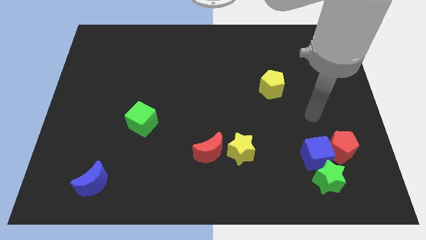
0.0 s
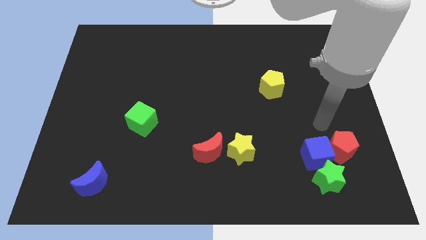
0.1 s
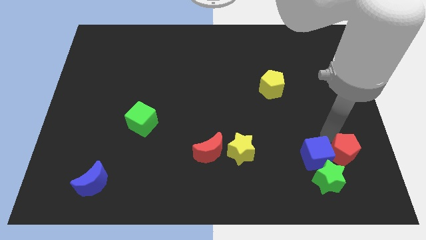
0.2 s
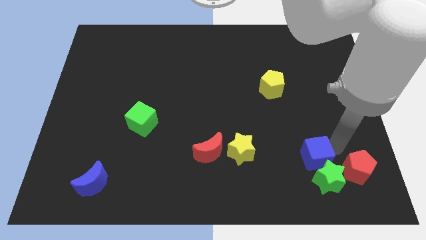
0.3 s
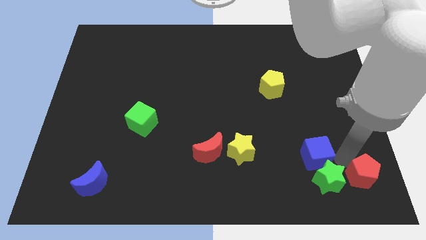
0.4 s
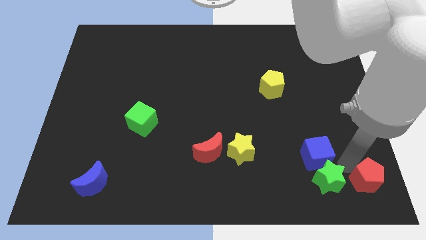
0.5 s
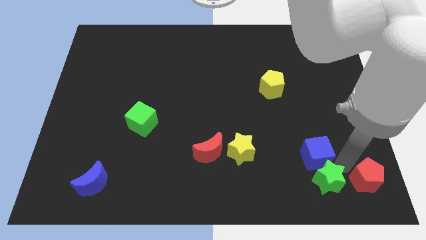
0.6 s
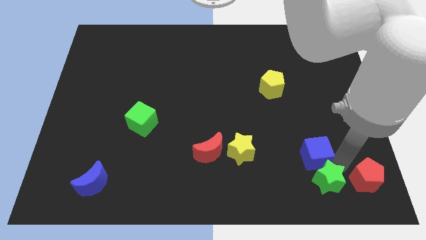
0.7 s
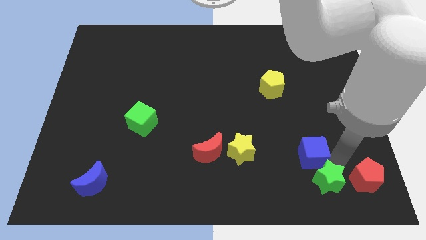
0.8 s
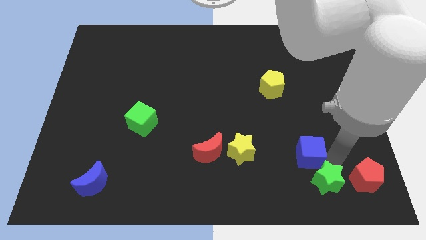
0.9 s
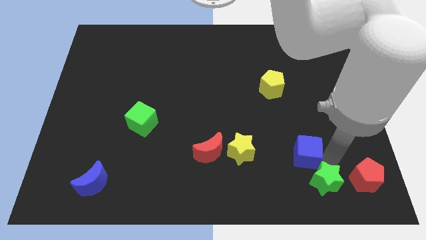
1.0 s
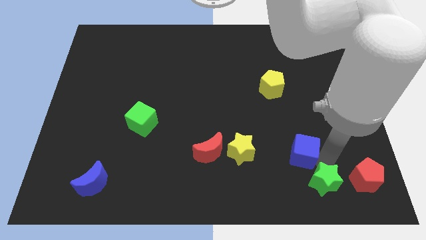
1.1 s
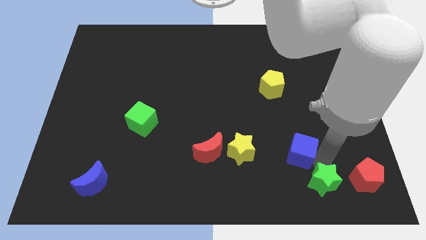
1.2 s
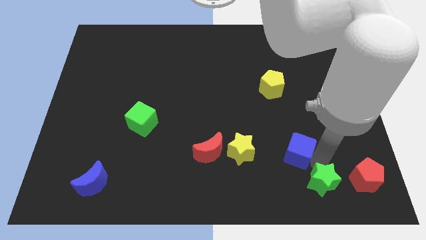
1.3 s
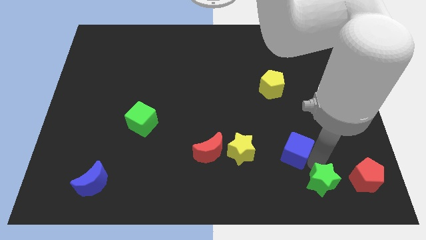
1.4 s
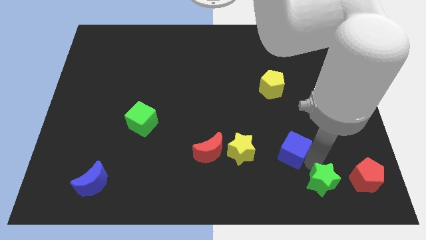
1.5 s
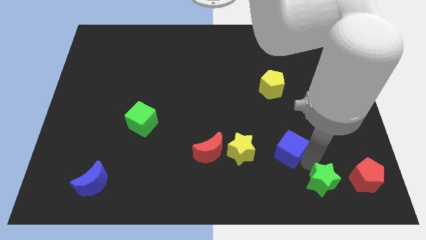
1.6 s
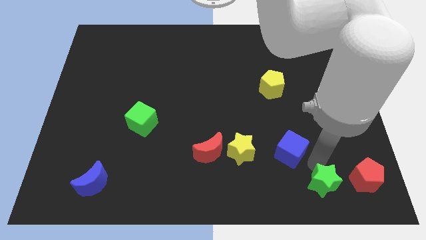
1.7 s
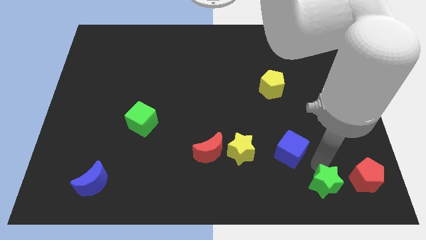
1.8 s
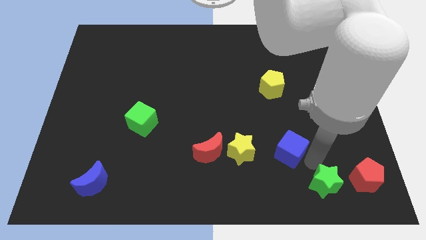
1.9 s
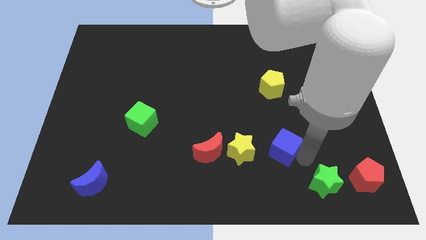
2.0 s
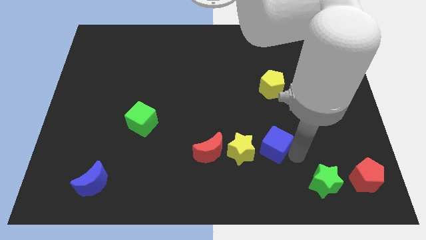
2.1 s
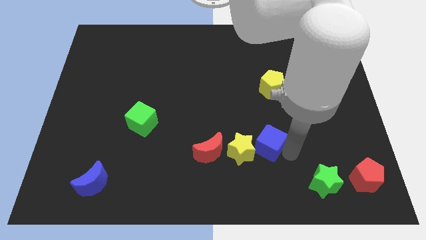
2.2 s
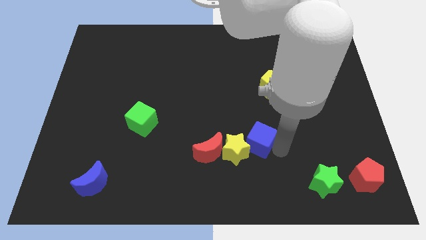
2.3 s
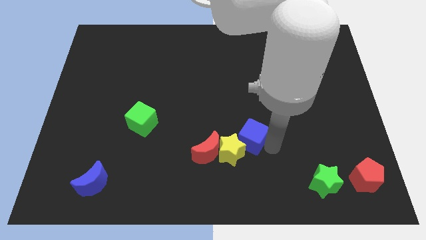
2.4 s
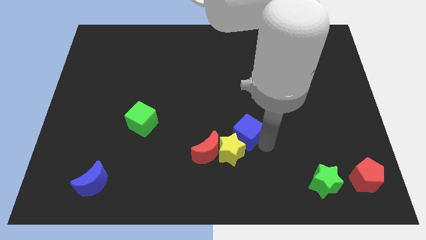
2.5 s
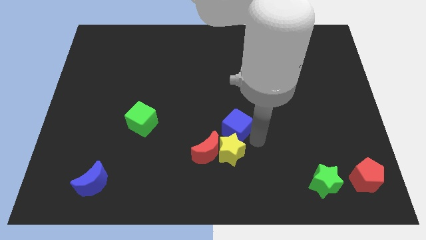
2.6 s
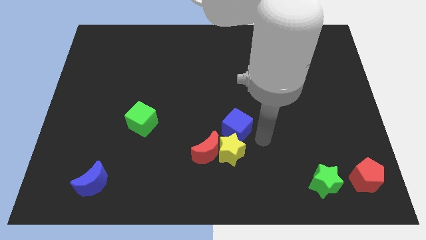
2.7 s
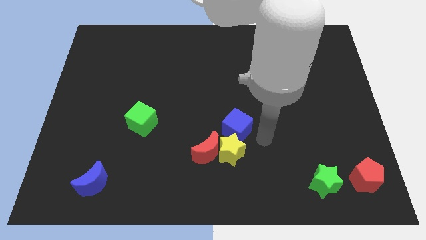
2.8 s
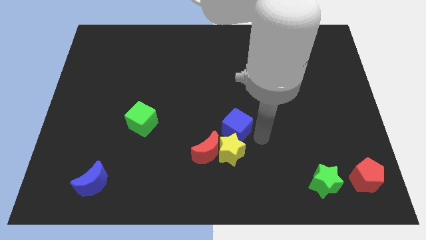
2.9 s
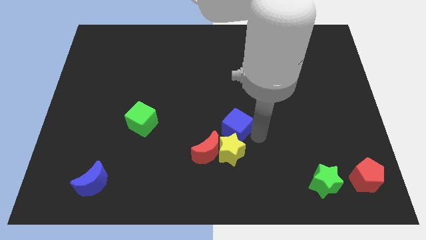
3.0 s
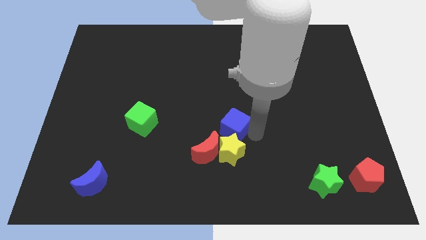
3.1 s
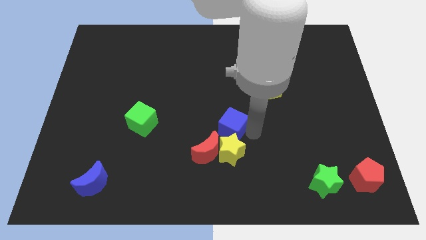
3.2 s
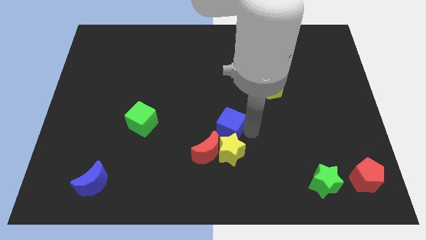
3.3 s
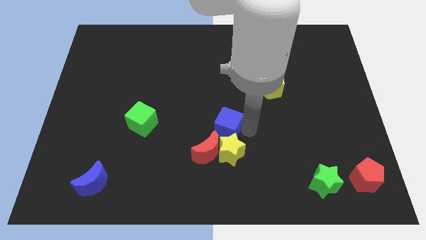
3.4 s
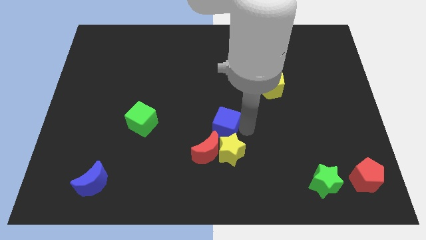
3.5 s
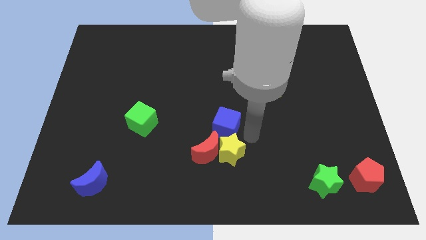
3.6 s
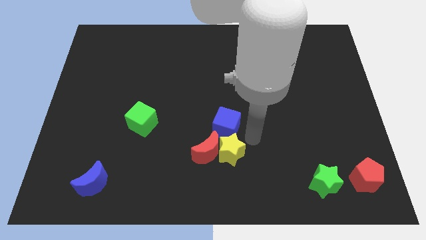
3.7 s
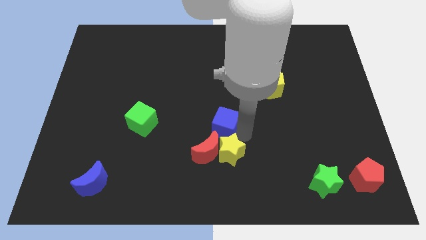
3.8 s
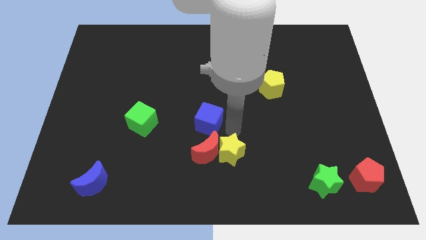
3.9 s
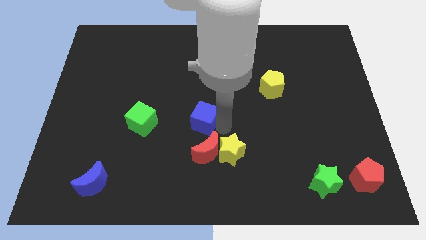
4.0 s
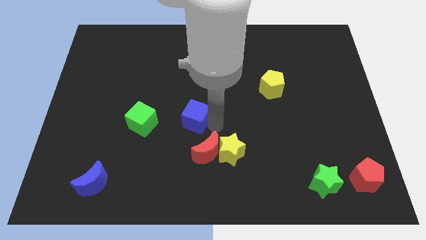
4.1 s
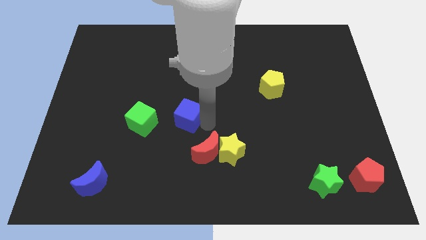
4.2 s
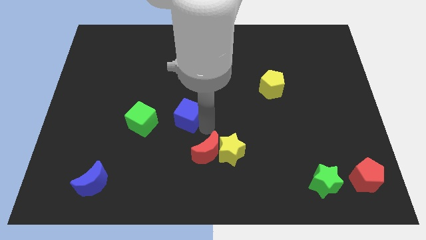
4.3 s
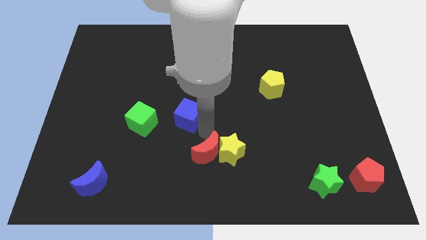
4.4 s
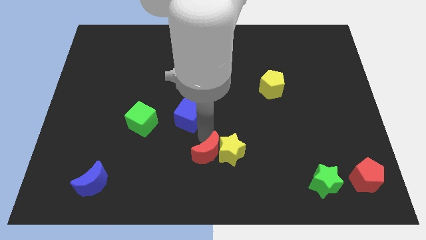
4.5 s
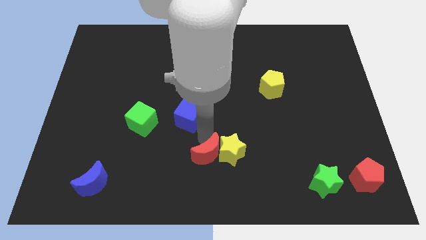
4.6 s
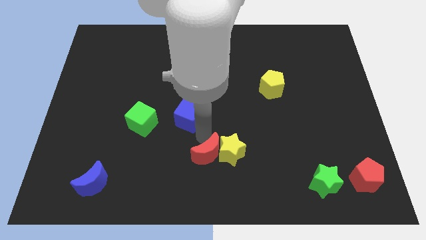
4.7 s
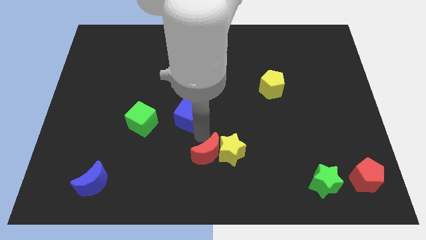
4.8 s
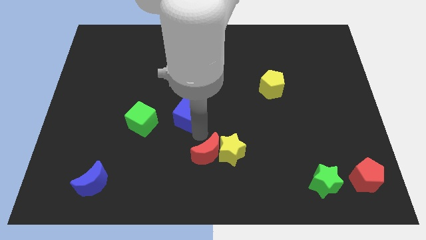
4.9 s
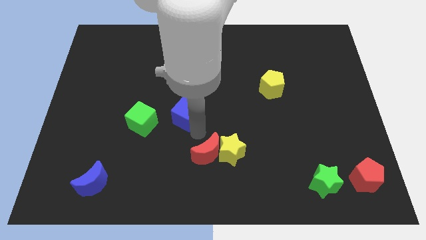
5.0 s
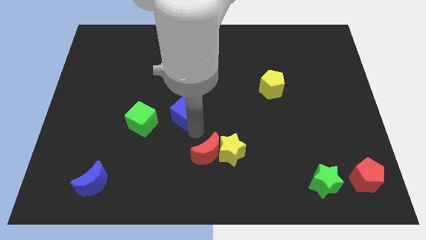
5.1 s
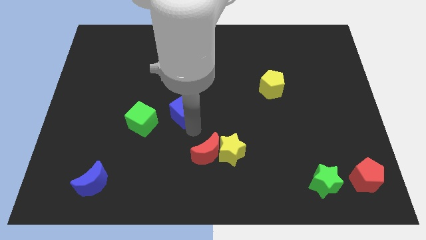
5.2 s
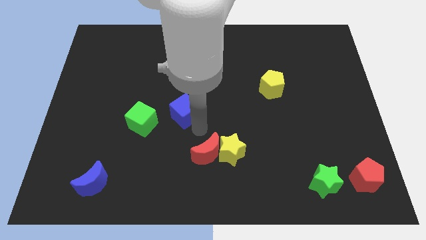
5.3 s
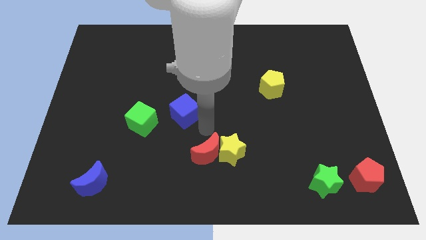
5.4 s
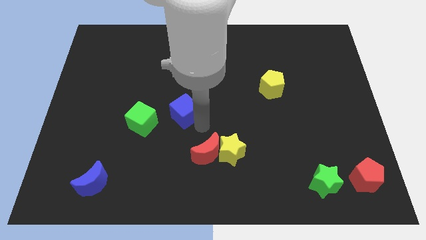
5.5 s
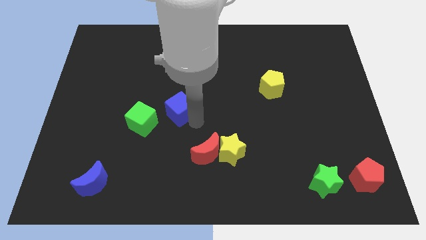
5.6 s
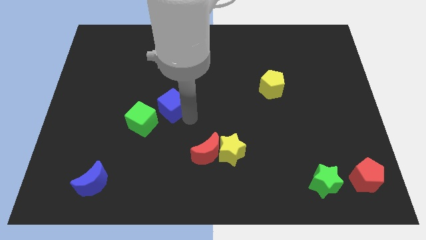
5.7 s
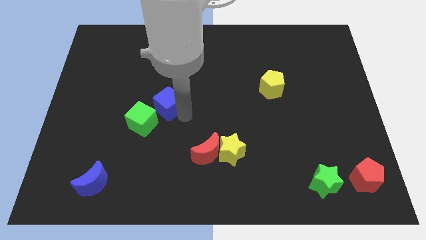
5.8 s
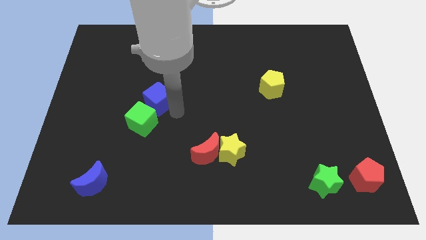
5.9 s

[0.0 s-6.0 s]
slide the blue cube to the top of the green cube

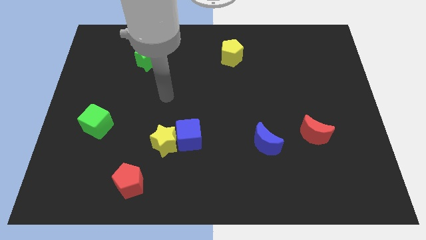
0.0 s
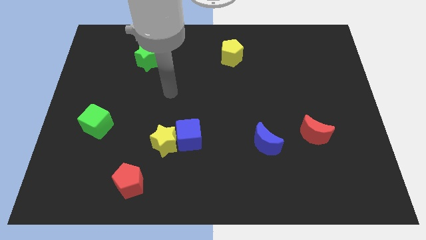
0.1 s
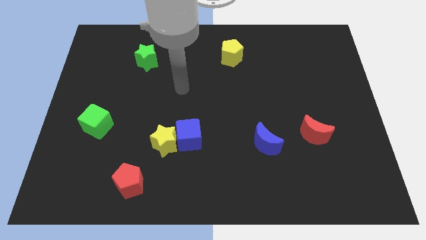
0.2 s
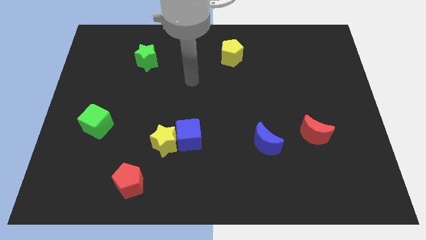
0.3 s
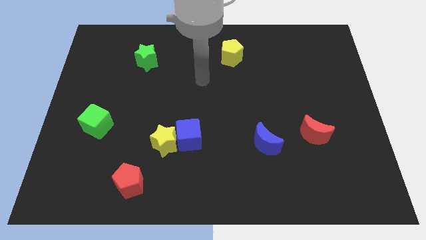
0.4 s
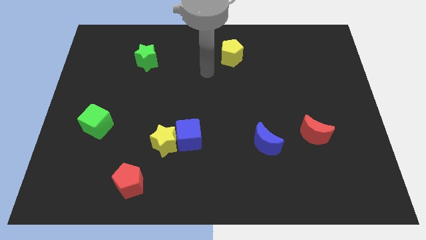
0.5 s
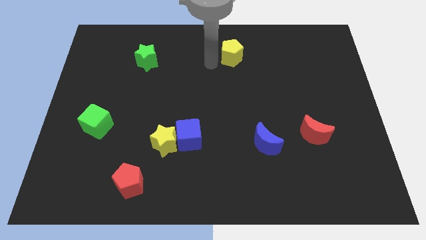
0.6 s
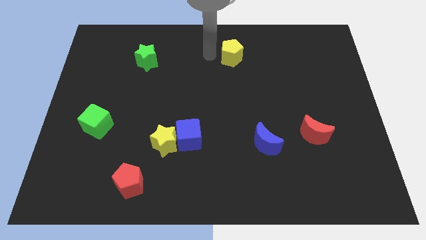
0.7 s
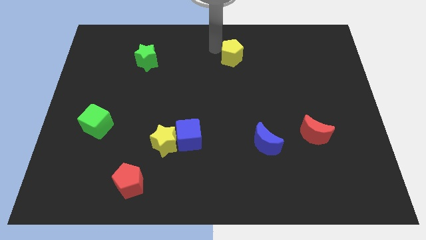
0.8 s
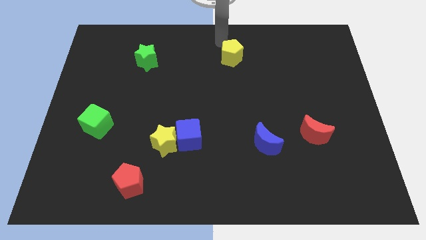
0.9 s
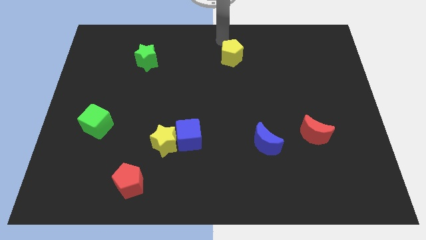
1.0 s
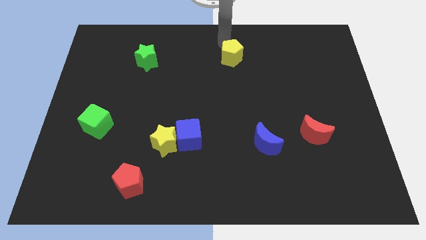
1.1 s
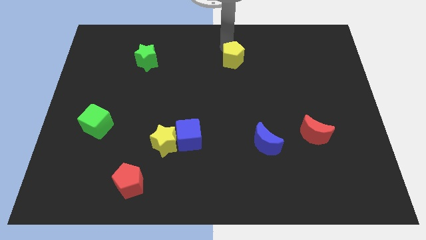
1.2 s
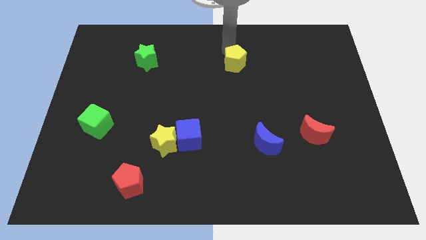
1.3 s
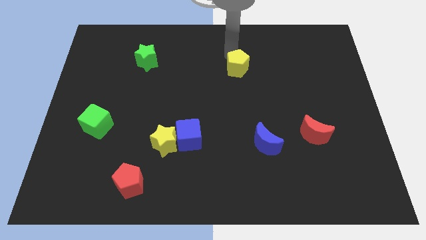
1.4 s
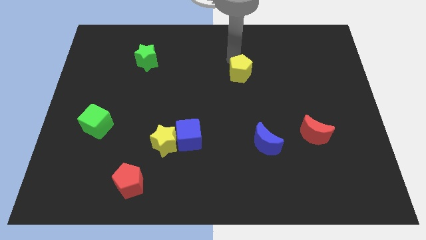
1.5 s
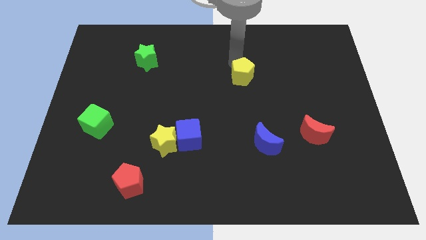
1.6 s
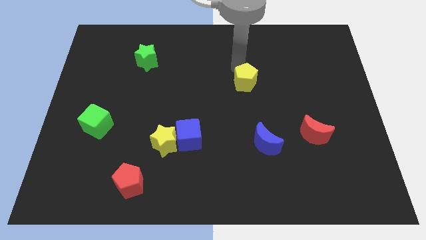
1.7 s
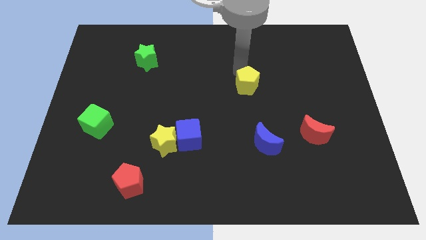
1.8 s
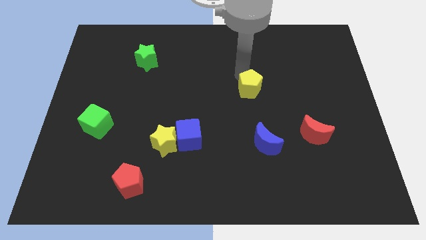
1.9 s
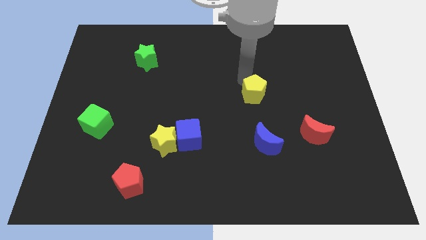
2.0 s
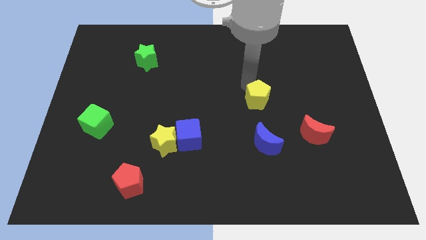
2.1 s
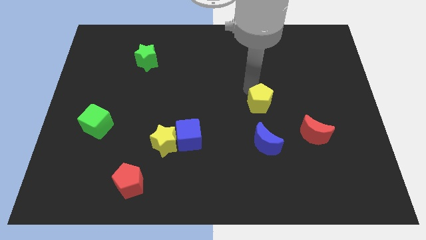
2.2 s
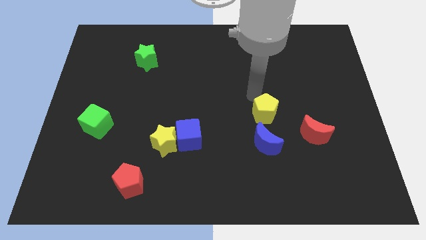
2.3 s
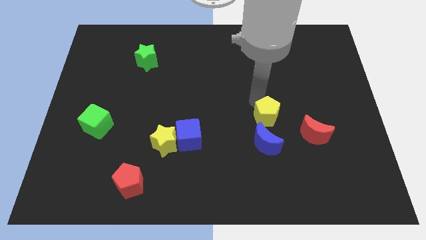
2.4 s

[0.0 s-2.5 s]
slide the yellow pentagon to the top right of the blue moon
